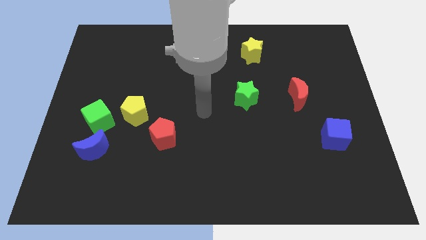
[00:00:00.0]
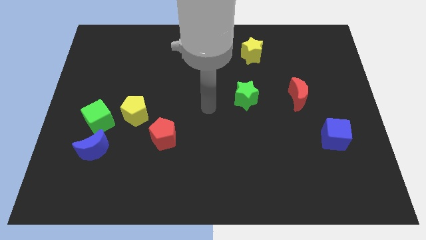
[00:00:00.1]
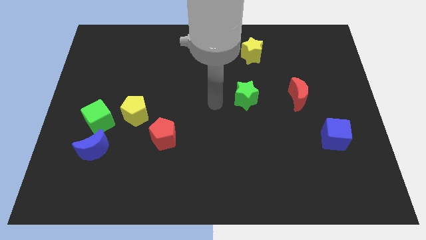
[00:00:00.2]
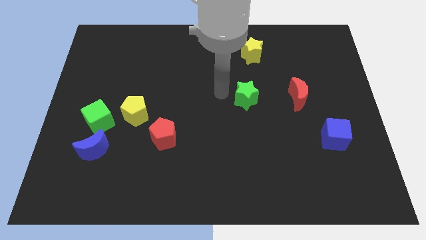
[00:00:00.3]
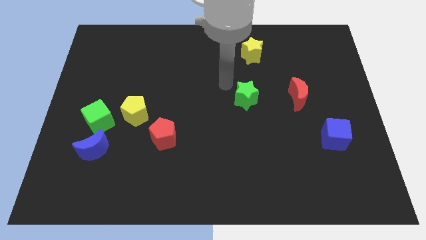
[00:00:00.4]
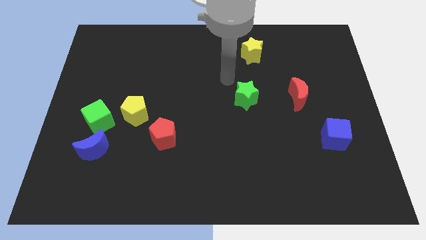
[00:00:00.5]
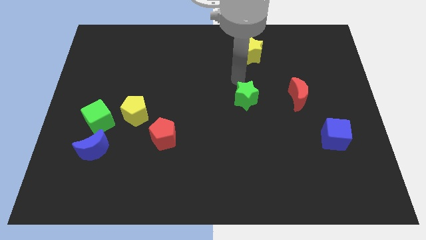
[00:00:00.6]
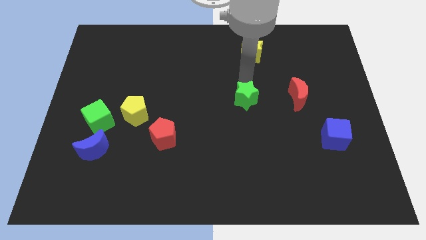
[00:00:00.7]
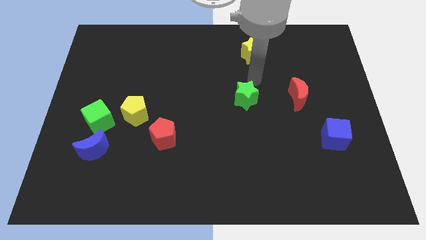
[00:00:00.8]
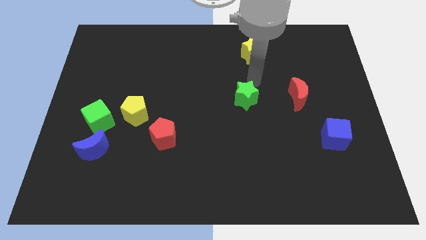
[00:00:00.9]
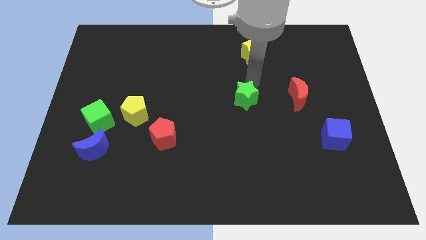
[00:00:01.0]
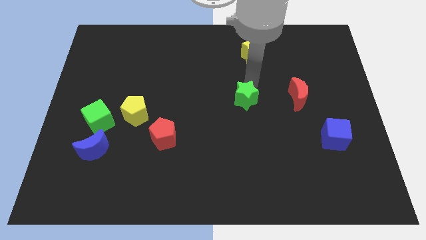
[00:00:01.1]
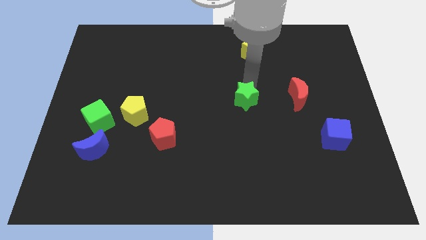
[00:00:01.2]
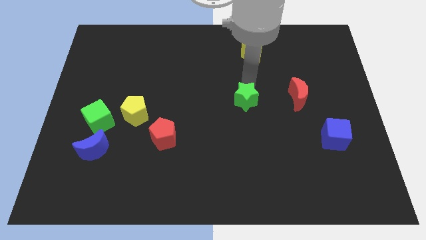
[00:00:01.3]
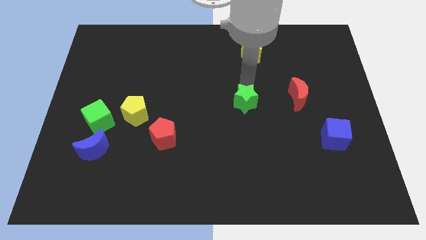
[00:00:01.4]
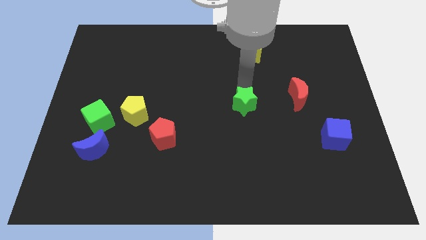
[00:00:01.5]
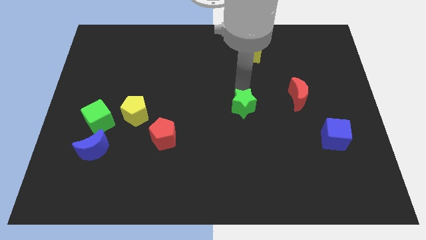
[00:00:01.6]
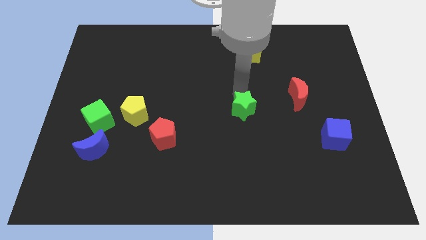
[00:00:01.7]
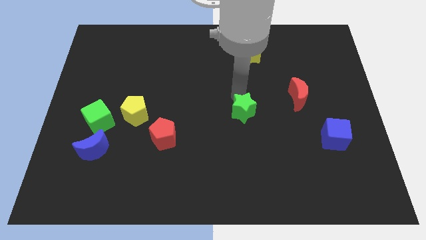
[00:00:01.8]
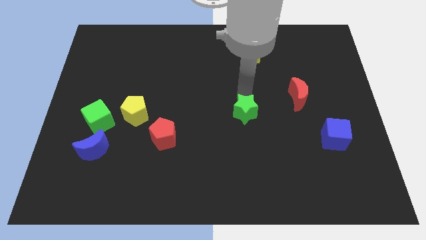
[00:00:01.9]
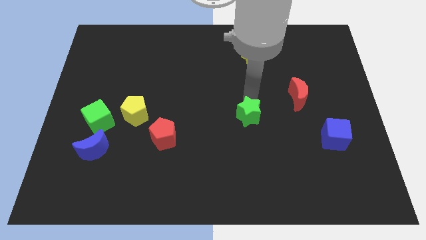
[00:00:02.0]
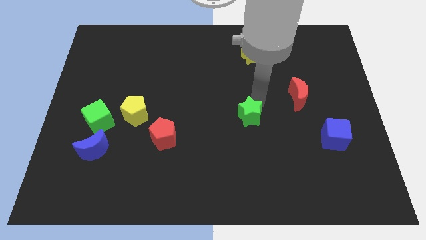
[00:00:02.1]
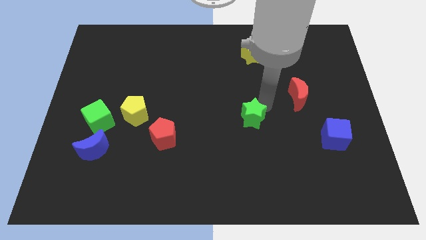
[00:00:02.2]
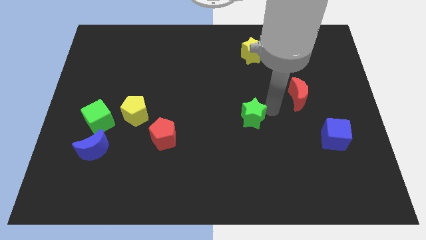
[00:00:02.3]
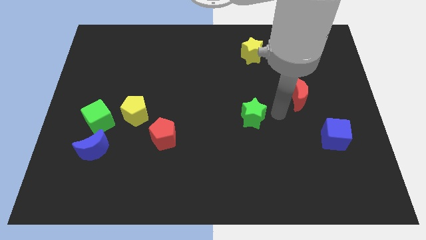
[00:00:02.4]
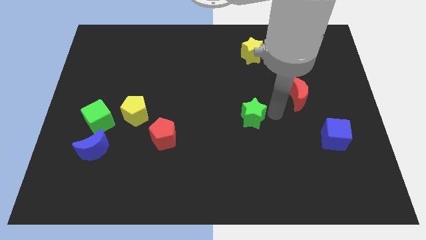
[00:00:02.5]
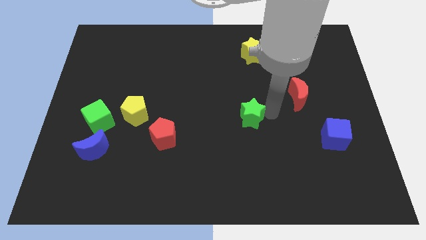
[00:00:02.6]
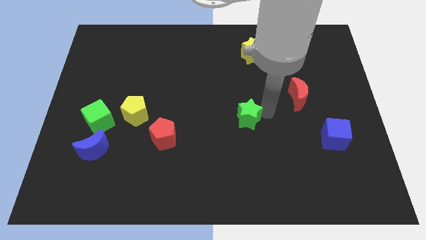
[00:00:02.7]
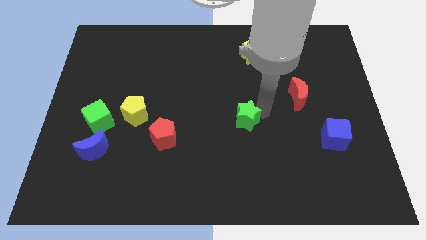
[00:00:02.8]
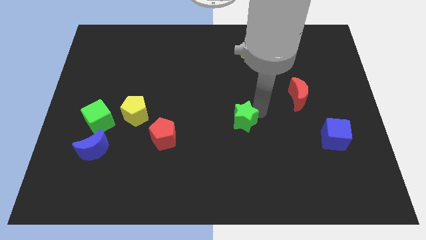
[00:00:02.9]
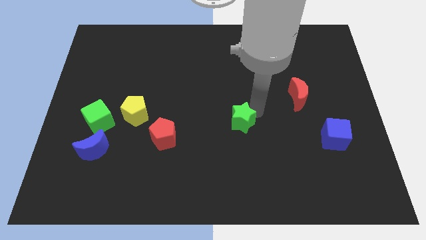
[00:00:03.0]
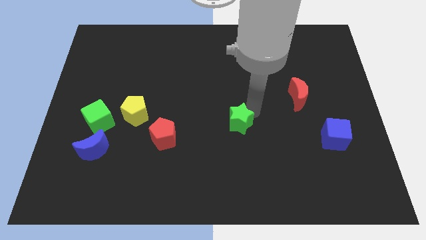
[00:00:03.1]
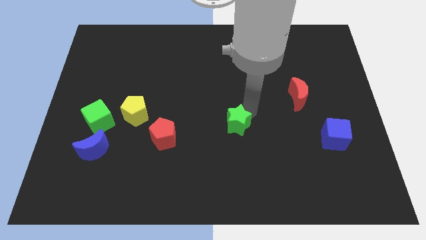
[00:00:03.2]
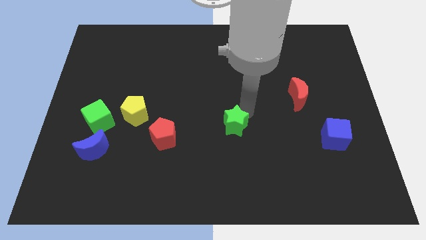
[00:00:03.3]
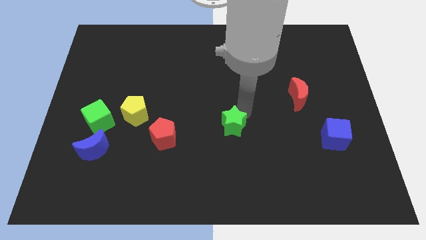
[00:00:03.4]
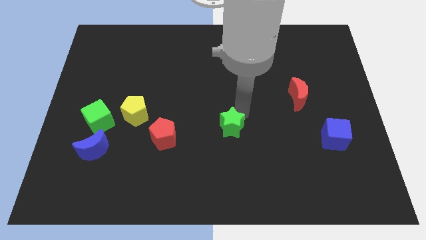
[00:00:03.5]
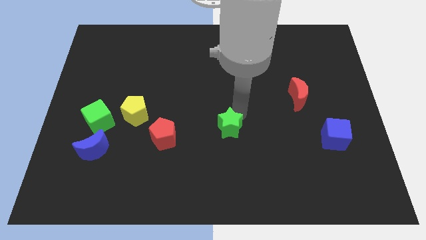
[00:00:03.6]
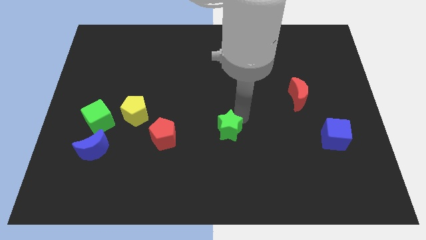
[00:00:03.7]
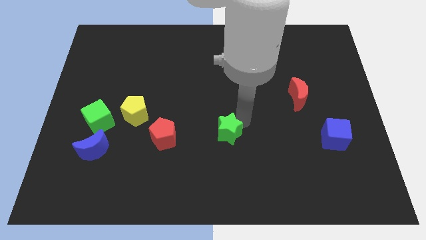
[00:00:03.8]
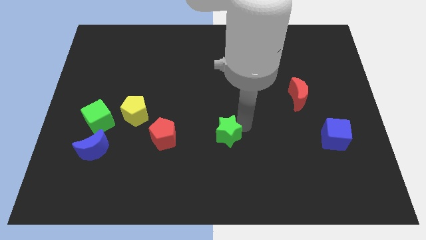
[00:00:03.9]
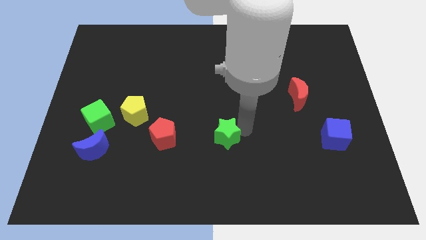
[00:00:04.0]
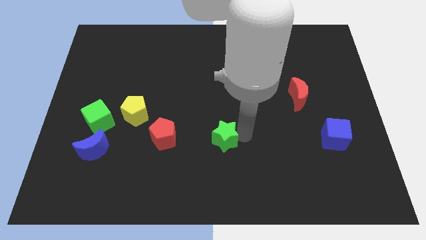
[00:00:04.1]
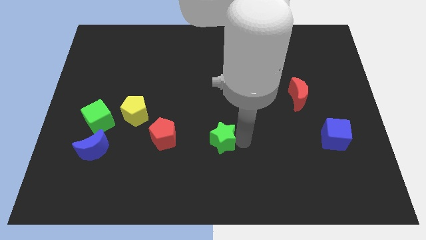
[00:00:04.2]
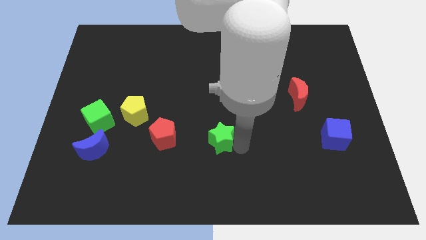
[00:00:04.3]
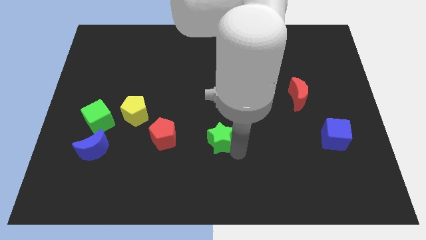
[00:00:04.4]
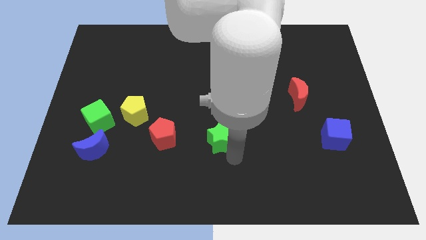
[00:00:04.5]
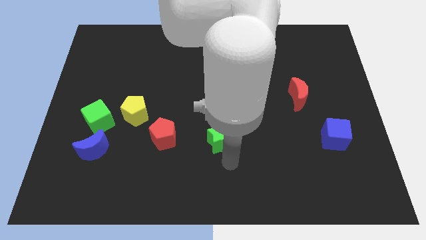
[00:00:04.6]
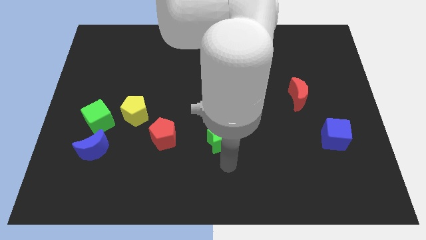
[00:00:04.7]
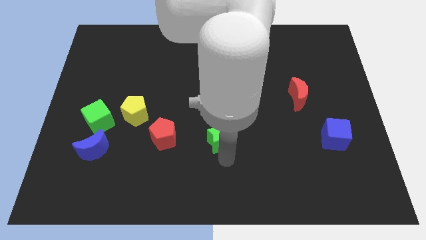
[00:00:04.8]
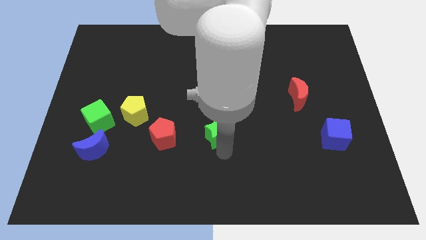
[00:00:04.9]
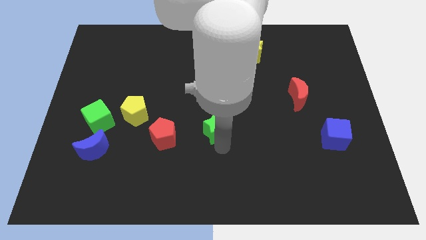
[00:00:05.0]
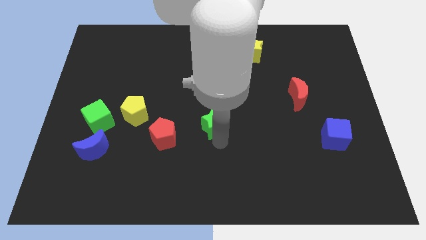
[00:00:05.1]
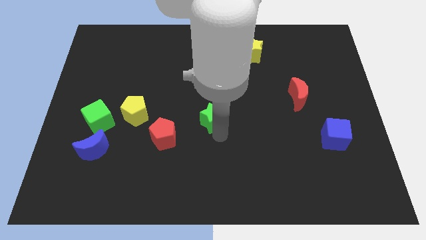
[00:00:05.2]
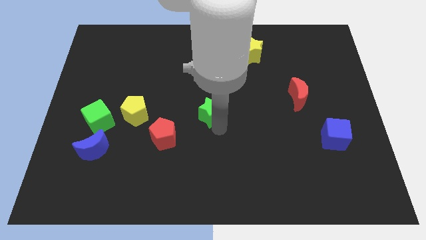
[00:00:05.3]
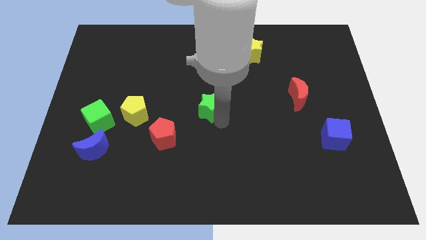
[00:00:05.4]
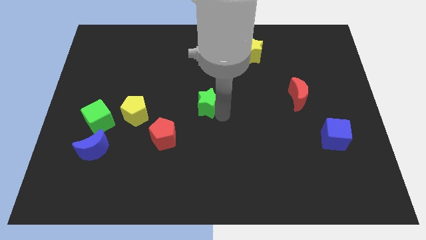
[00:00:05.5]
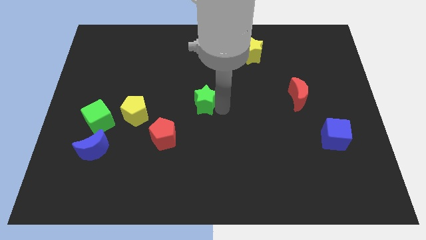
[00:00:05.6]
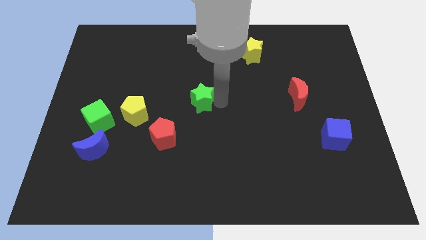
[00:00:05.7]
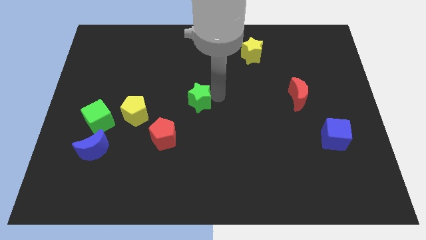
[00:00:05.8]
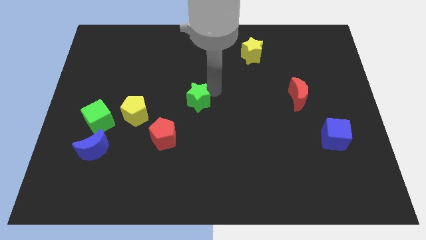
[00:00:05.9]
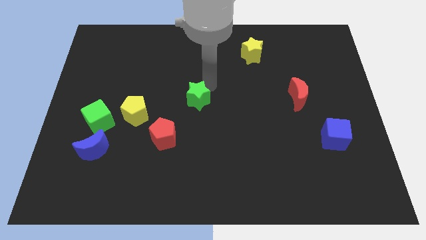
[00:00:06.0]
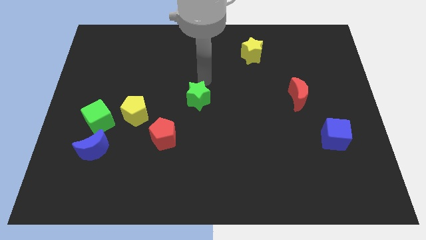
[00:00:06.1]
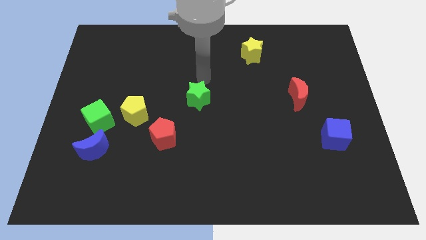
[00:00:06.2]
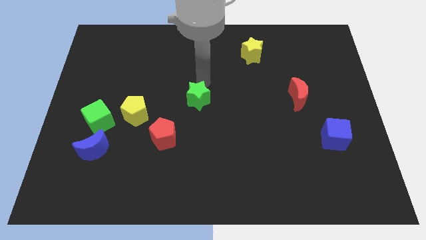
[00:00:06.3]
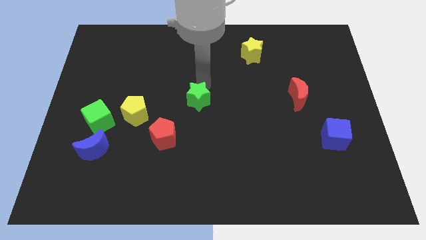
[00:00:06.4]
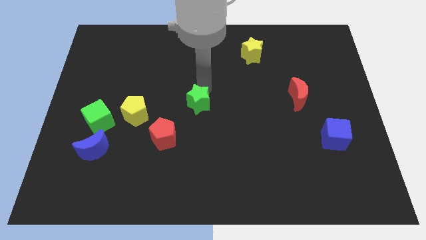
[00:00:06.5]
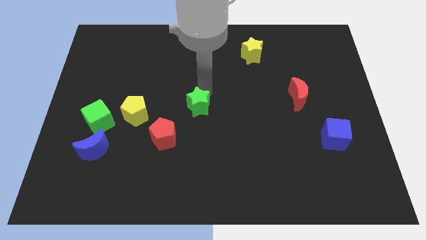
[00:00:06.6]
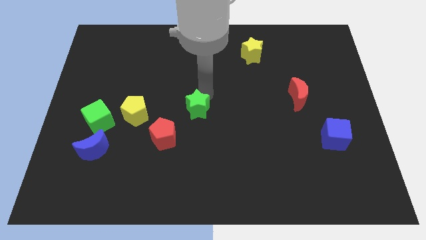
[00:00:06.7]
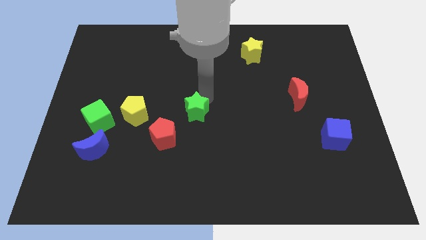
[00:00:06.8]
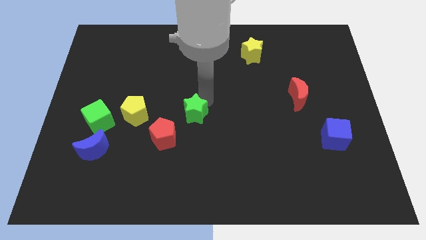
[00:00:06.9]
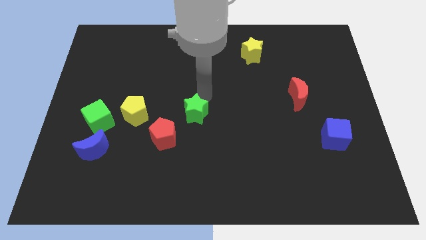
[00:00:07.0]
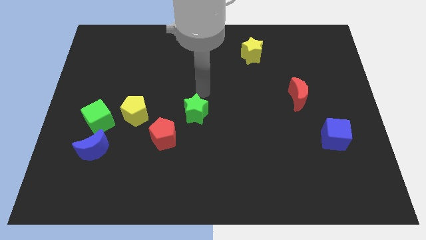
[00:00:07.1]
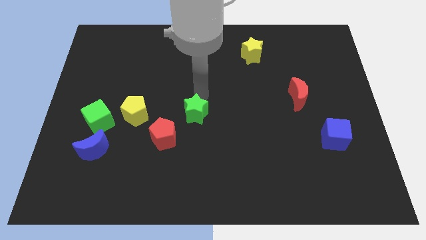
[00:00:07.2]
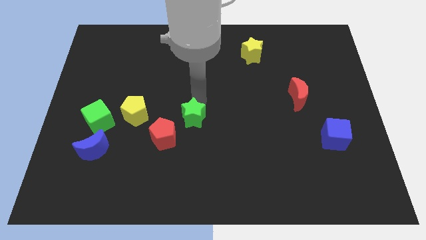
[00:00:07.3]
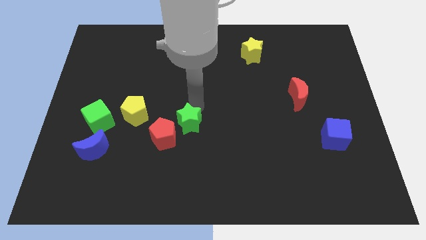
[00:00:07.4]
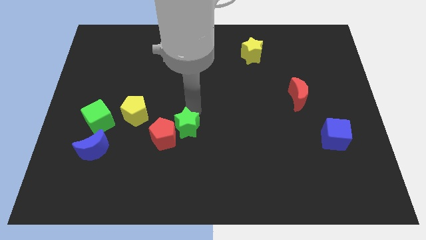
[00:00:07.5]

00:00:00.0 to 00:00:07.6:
move the green star close to the red pentagon
